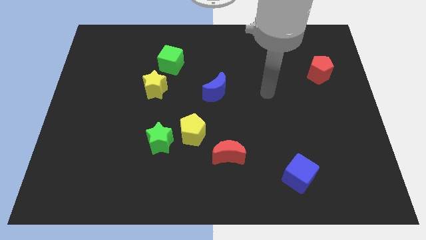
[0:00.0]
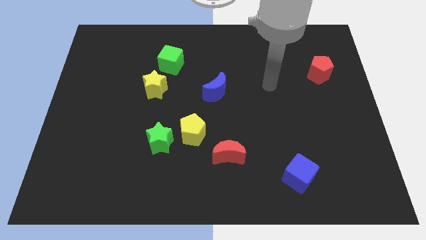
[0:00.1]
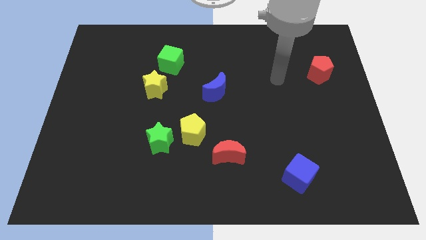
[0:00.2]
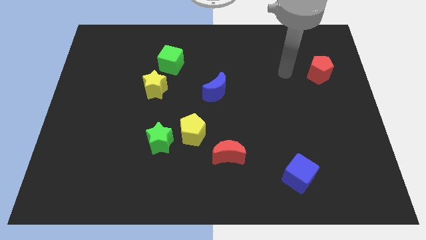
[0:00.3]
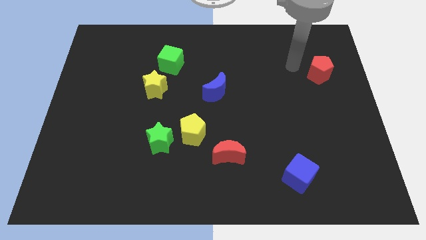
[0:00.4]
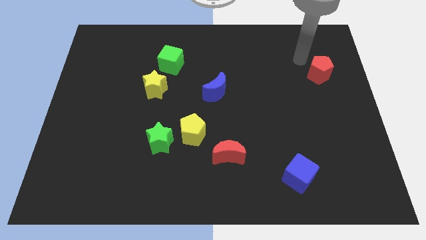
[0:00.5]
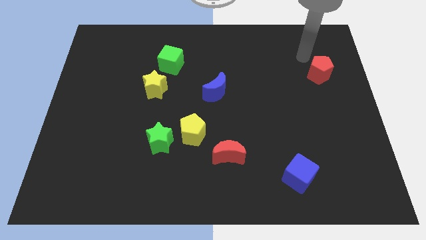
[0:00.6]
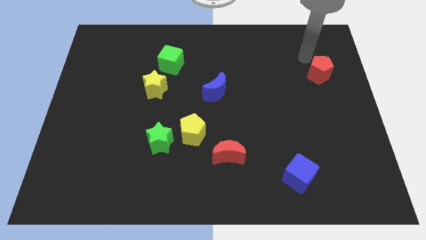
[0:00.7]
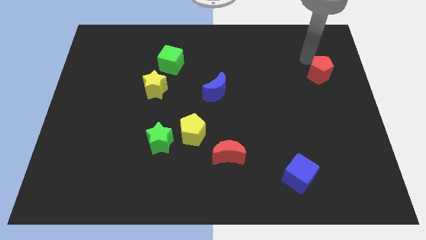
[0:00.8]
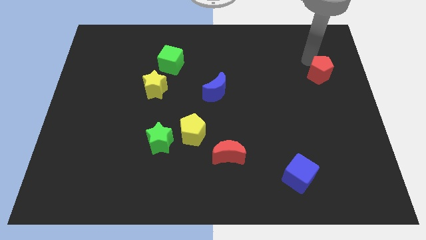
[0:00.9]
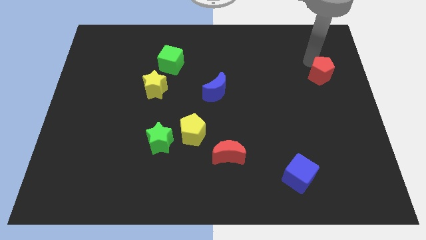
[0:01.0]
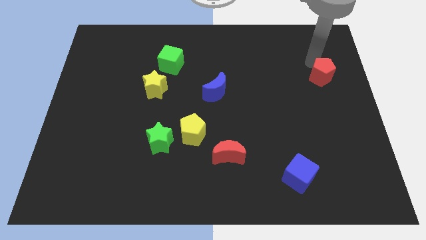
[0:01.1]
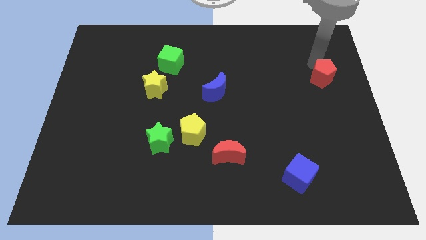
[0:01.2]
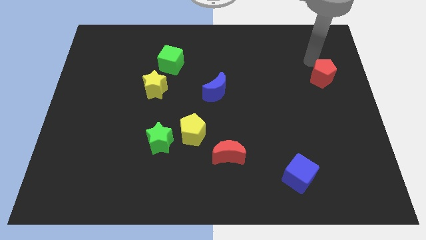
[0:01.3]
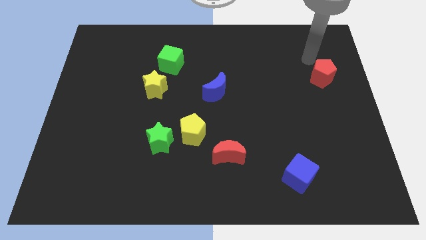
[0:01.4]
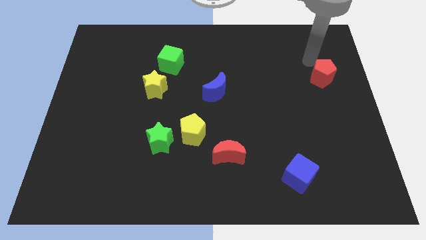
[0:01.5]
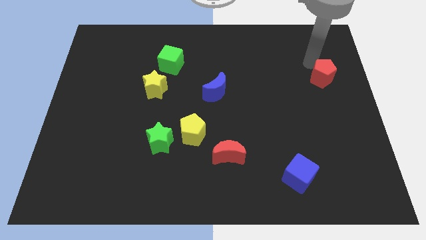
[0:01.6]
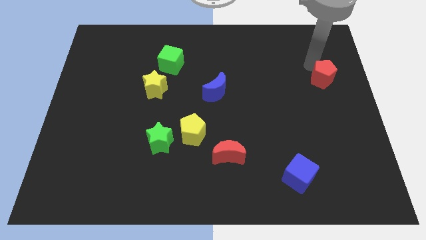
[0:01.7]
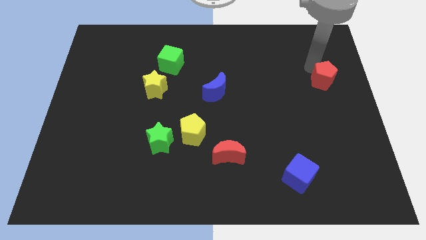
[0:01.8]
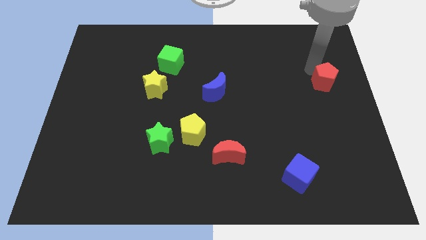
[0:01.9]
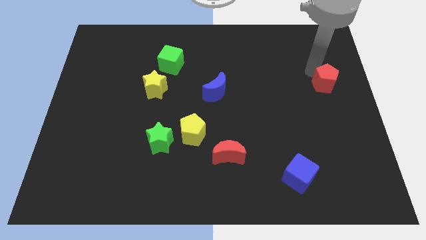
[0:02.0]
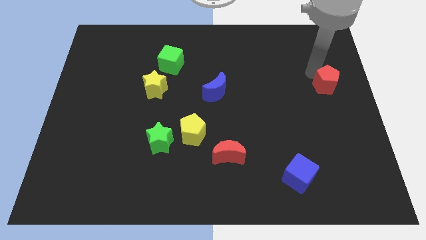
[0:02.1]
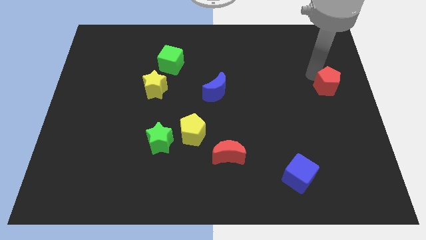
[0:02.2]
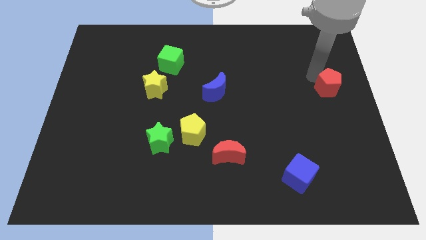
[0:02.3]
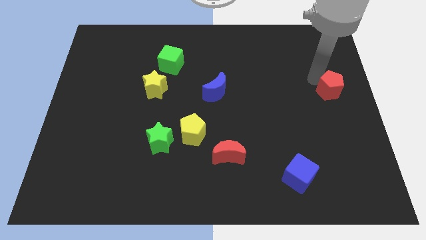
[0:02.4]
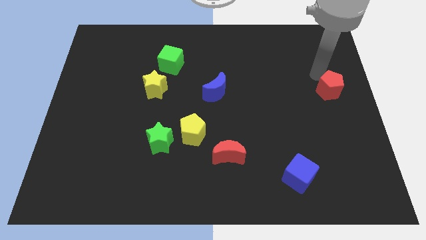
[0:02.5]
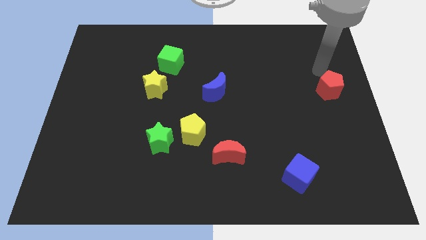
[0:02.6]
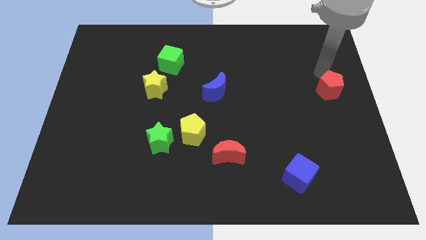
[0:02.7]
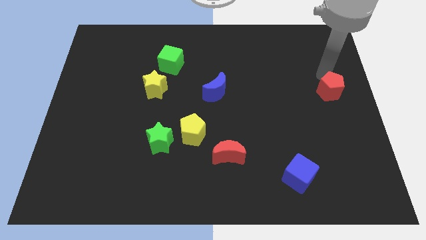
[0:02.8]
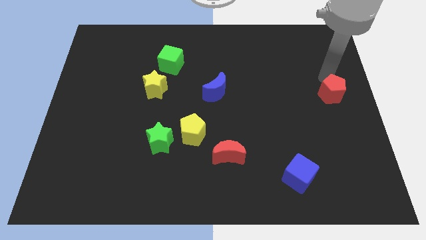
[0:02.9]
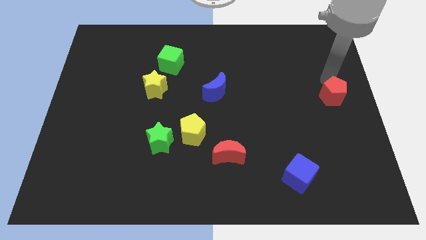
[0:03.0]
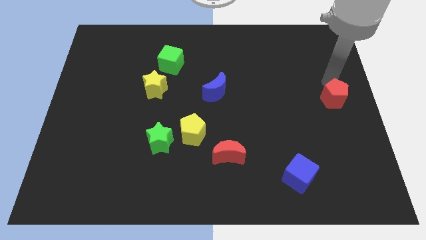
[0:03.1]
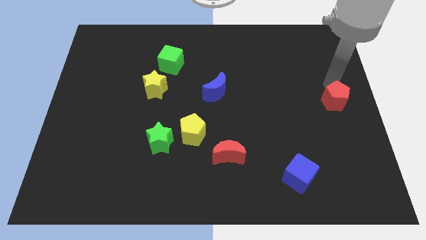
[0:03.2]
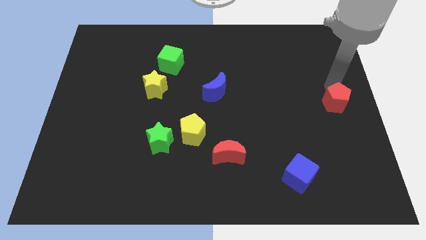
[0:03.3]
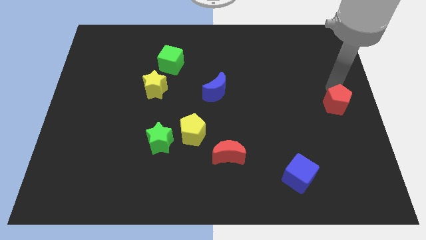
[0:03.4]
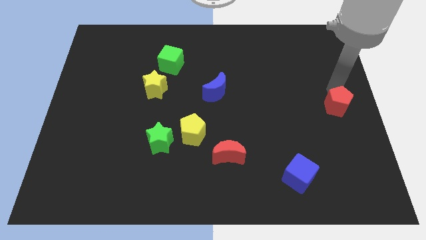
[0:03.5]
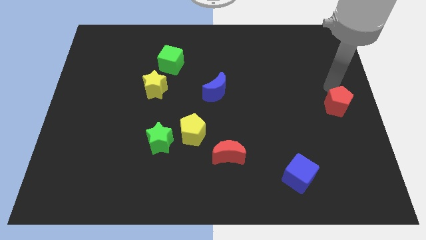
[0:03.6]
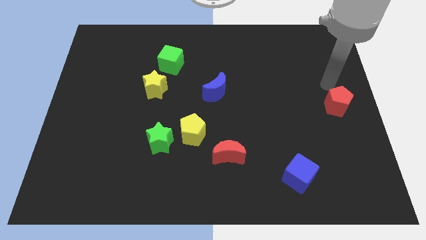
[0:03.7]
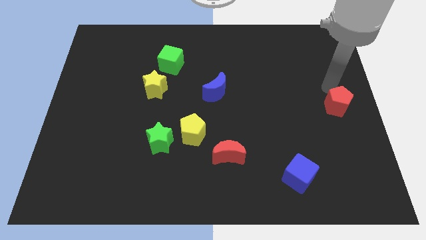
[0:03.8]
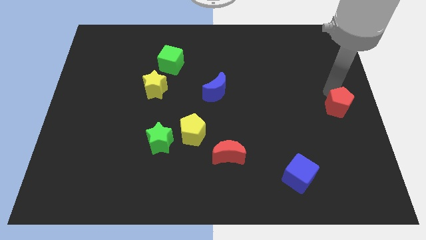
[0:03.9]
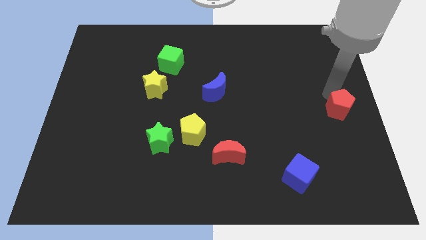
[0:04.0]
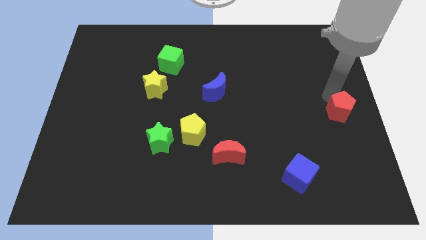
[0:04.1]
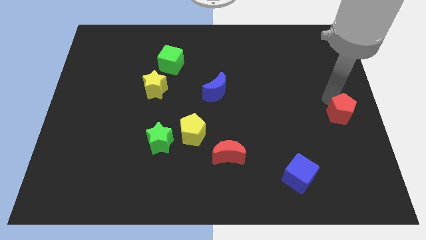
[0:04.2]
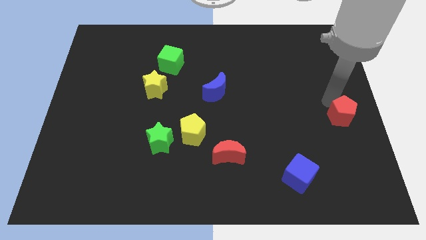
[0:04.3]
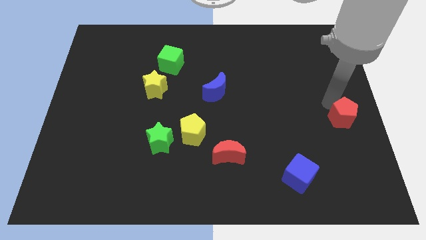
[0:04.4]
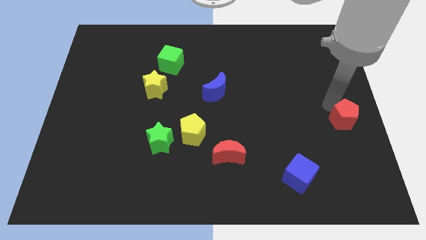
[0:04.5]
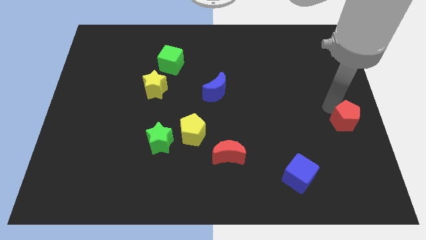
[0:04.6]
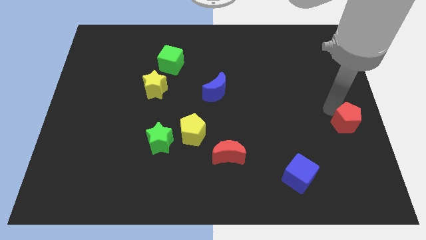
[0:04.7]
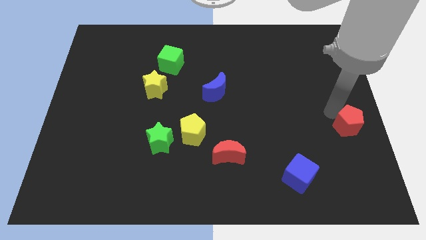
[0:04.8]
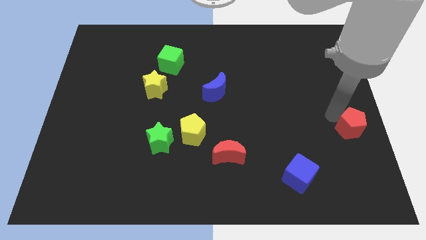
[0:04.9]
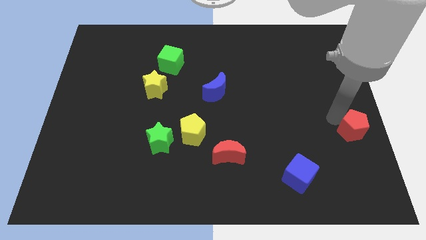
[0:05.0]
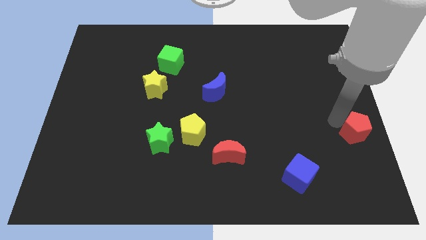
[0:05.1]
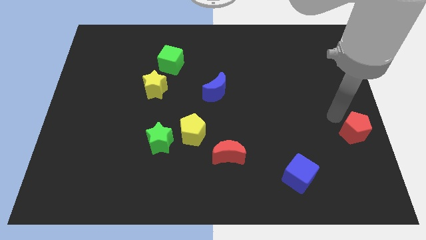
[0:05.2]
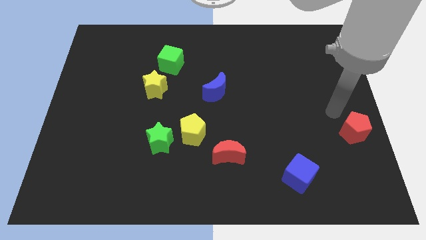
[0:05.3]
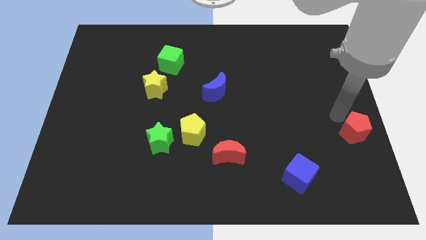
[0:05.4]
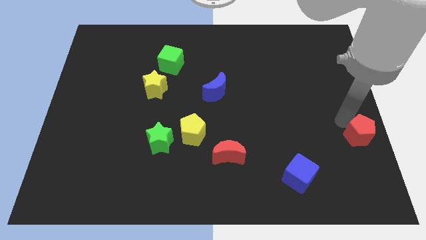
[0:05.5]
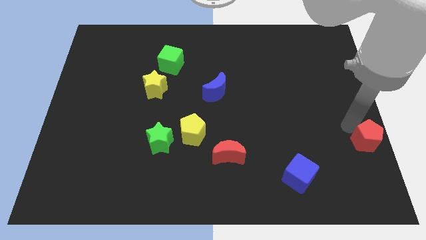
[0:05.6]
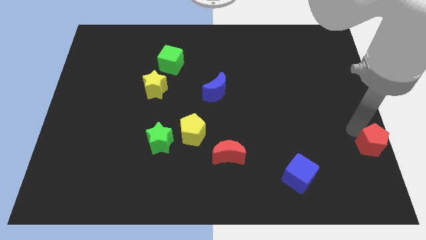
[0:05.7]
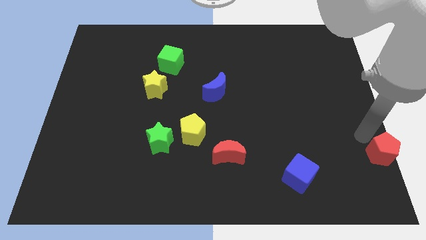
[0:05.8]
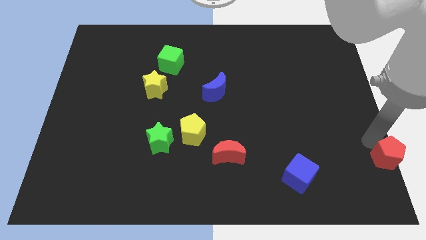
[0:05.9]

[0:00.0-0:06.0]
push the red pentagon to the bottom right corner

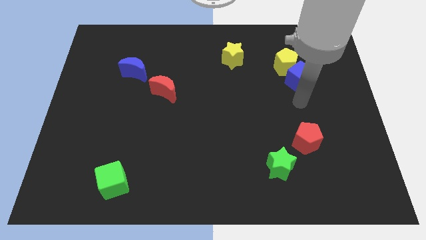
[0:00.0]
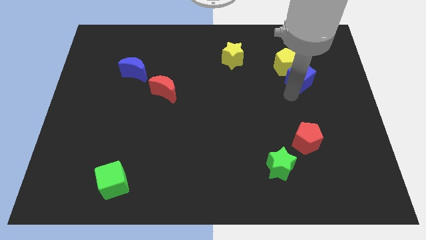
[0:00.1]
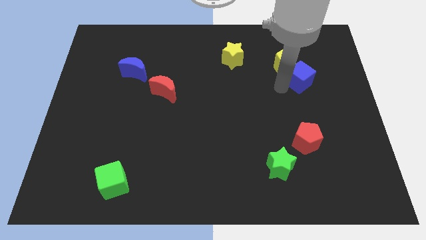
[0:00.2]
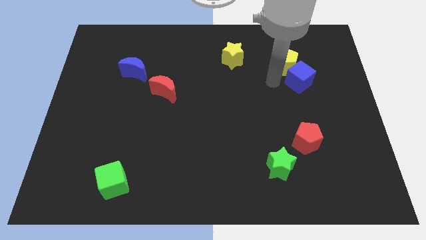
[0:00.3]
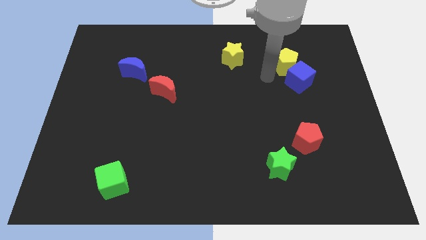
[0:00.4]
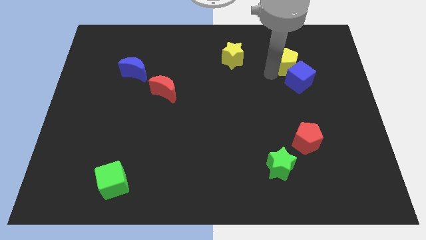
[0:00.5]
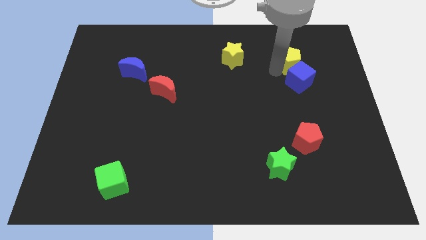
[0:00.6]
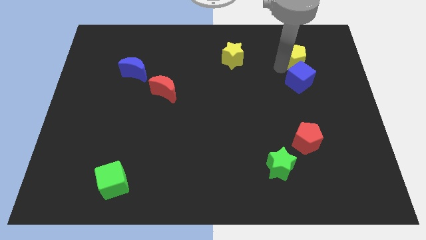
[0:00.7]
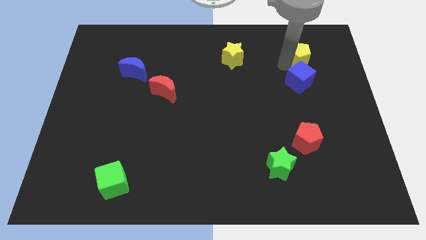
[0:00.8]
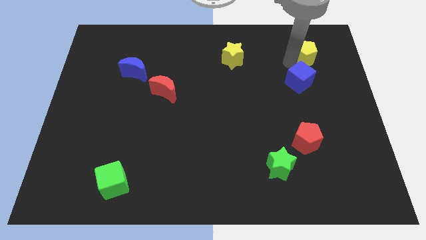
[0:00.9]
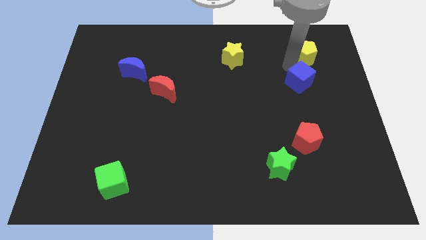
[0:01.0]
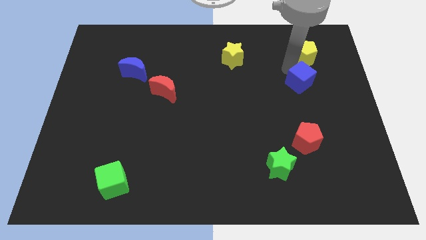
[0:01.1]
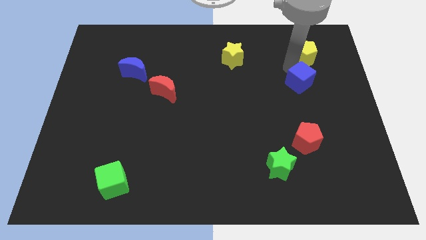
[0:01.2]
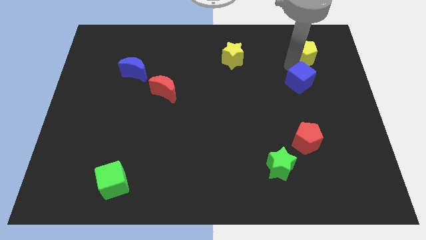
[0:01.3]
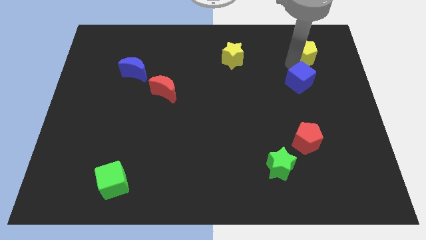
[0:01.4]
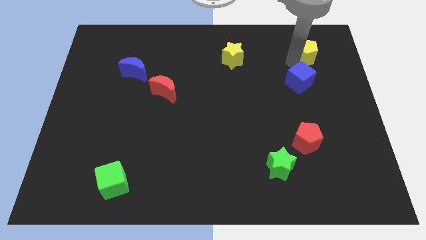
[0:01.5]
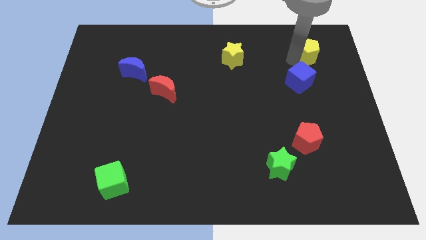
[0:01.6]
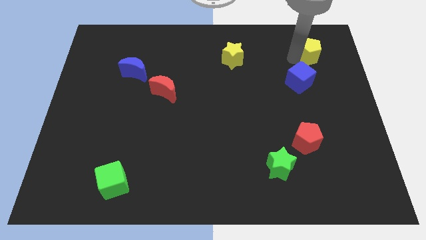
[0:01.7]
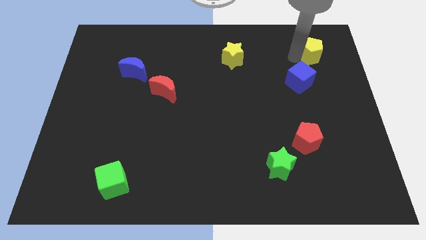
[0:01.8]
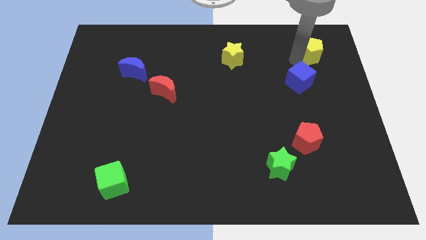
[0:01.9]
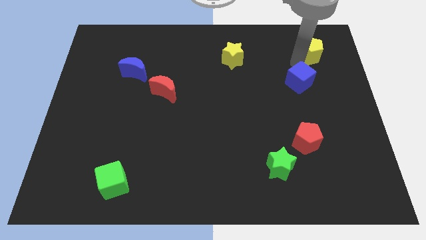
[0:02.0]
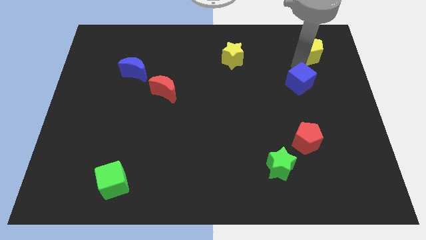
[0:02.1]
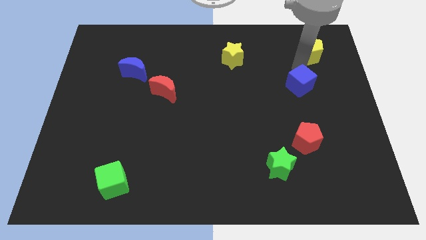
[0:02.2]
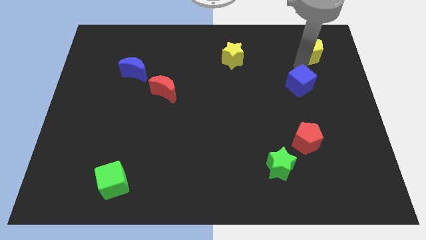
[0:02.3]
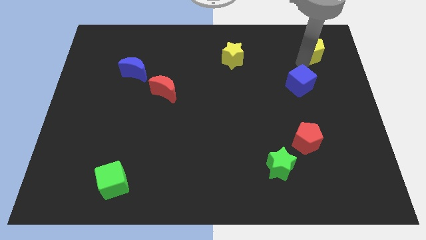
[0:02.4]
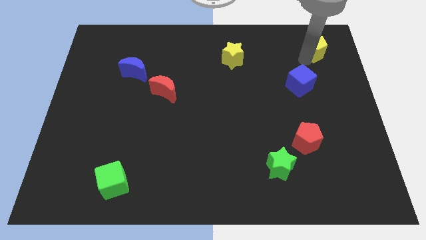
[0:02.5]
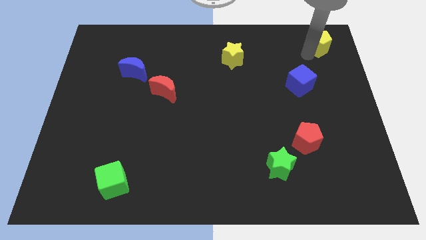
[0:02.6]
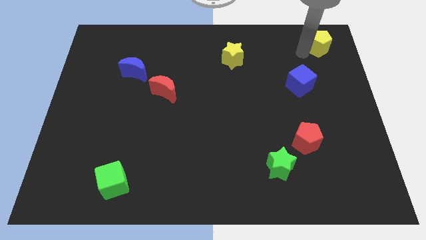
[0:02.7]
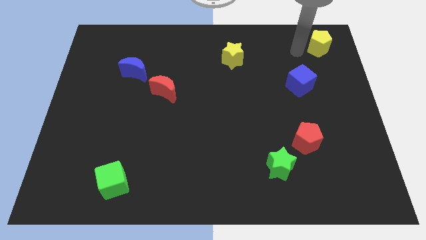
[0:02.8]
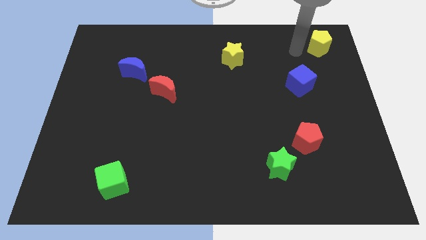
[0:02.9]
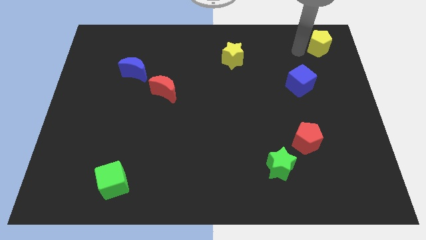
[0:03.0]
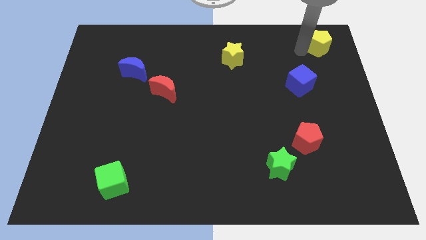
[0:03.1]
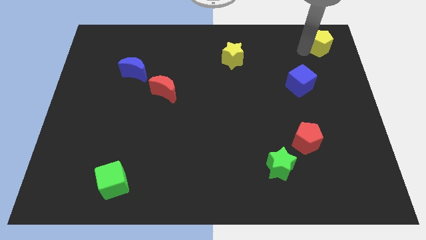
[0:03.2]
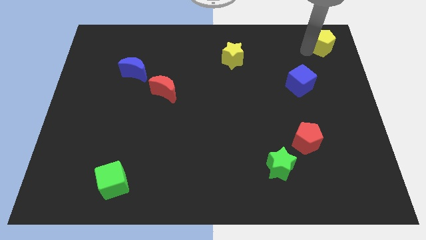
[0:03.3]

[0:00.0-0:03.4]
put the yellow pentagon to the upper right corner
